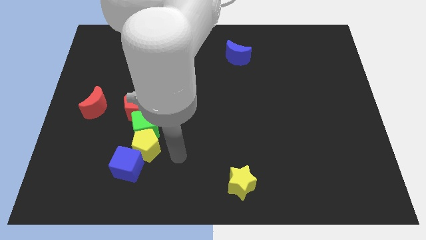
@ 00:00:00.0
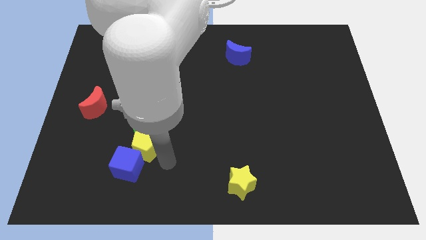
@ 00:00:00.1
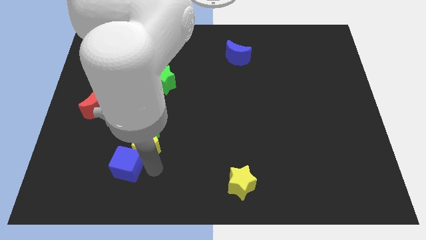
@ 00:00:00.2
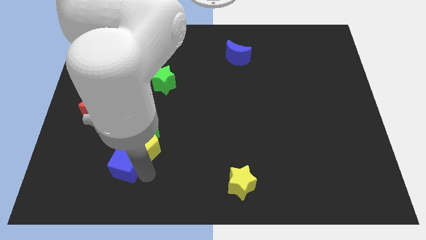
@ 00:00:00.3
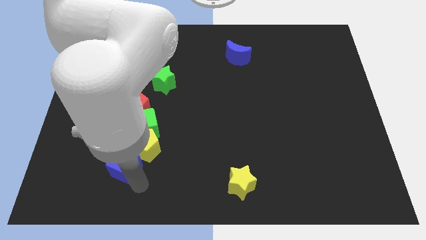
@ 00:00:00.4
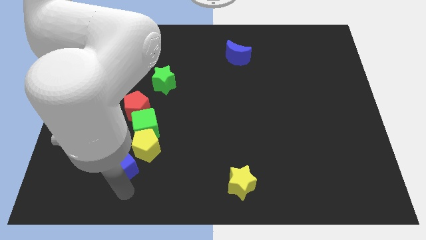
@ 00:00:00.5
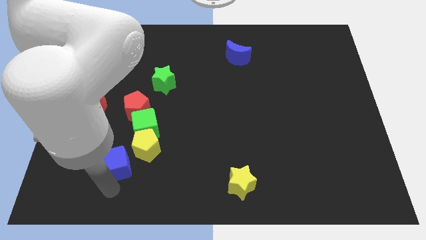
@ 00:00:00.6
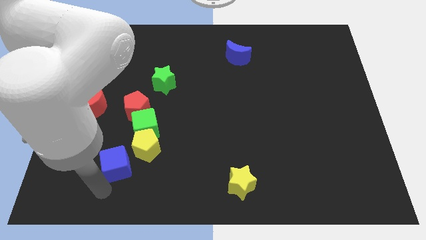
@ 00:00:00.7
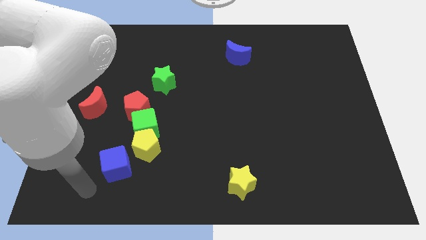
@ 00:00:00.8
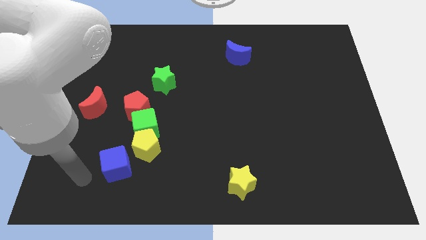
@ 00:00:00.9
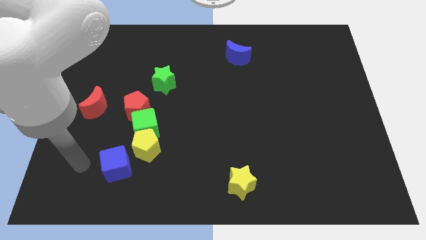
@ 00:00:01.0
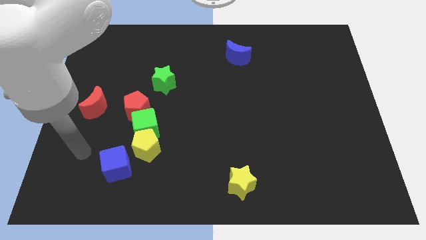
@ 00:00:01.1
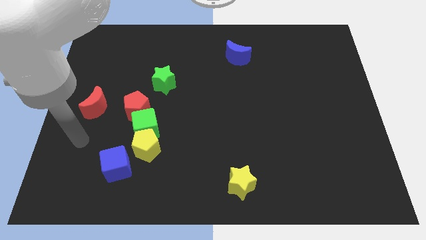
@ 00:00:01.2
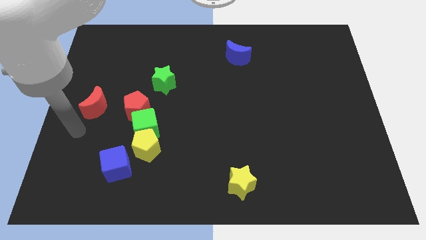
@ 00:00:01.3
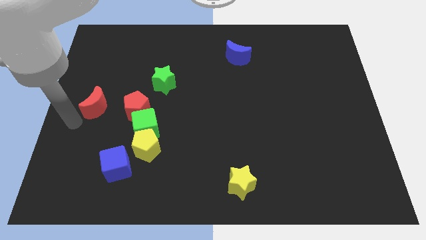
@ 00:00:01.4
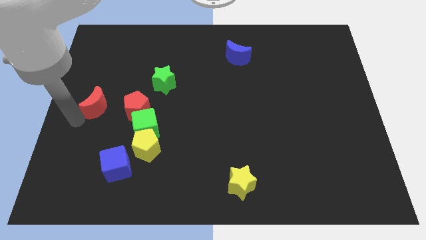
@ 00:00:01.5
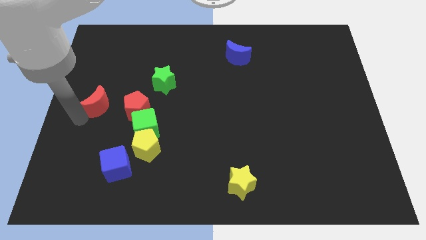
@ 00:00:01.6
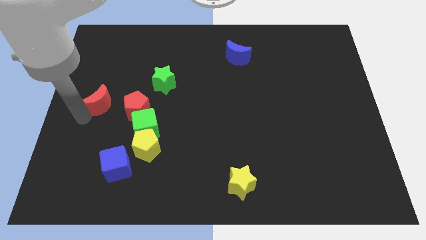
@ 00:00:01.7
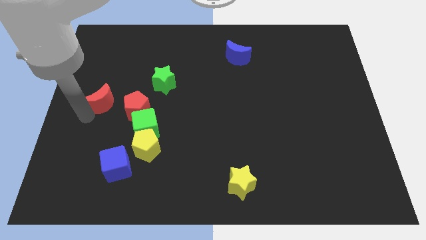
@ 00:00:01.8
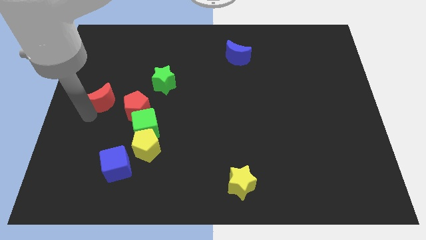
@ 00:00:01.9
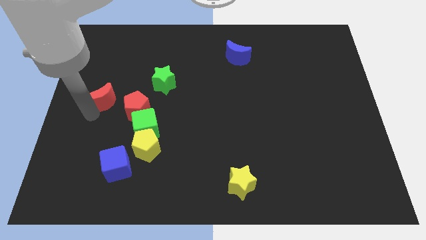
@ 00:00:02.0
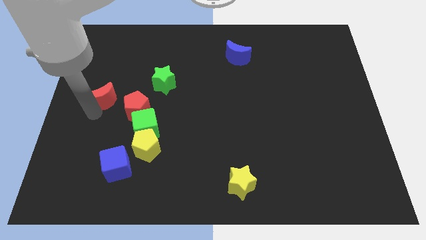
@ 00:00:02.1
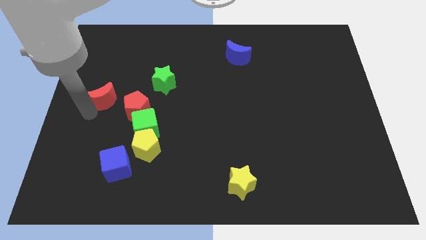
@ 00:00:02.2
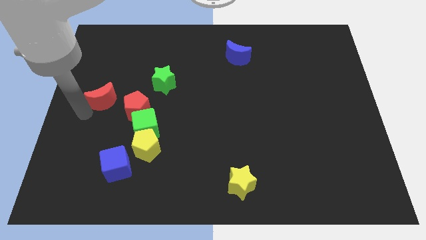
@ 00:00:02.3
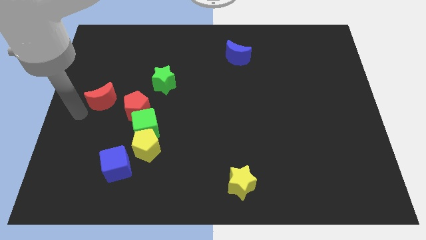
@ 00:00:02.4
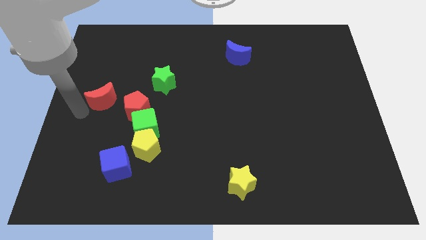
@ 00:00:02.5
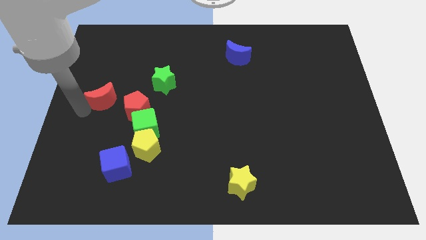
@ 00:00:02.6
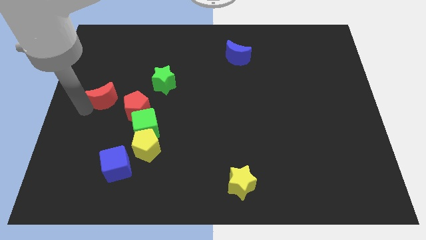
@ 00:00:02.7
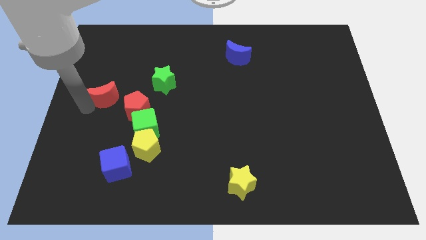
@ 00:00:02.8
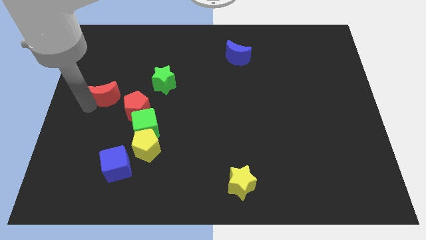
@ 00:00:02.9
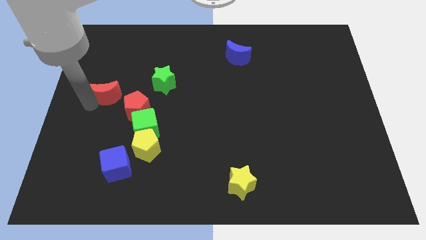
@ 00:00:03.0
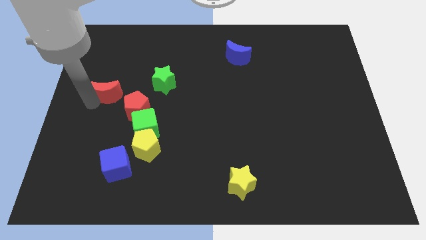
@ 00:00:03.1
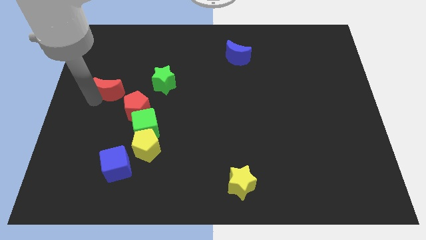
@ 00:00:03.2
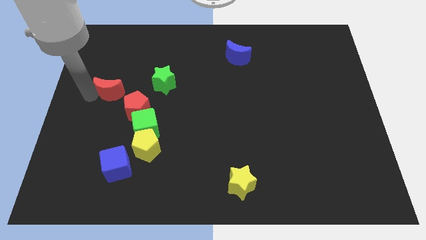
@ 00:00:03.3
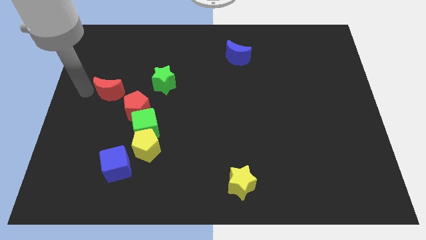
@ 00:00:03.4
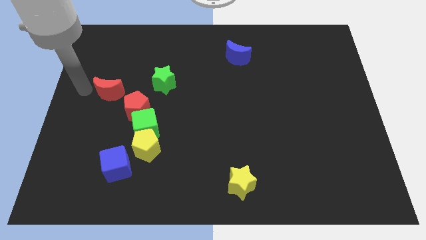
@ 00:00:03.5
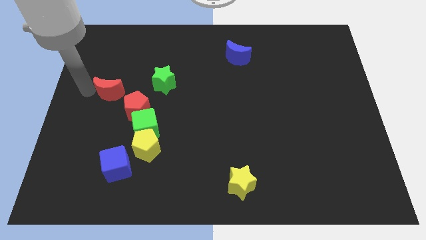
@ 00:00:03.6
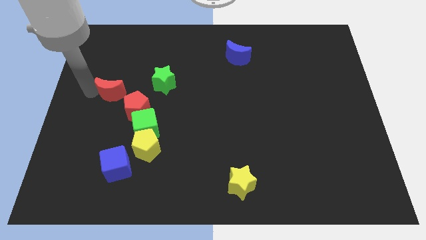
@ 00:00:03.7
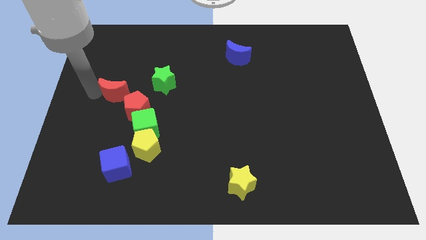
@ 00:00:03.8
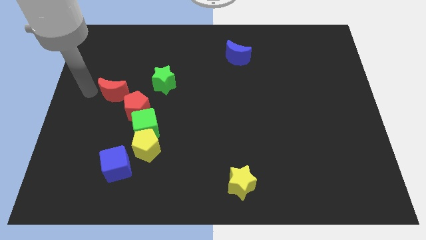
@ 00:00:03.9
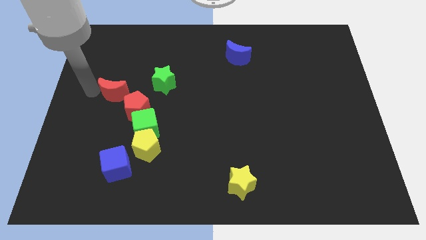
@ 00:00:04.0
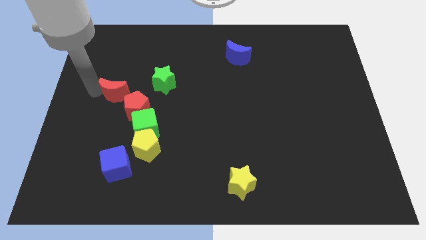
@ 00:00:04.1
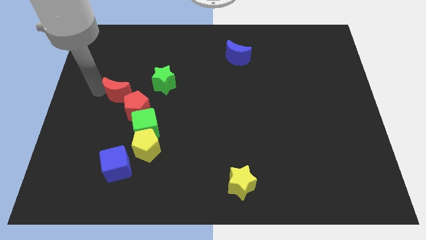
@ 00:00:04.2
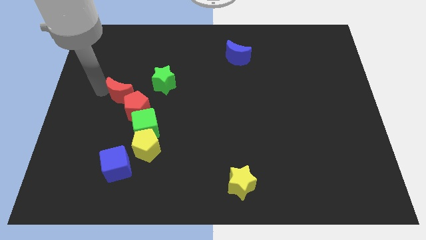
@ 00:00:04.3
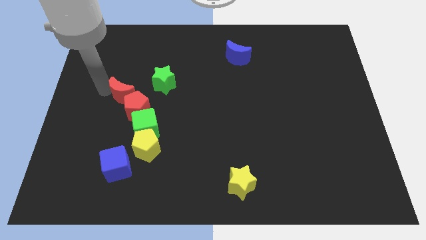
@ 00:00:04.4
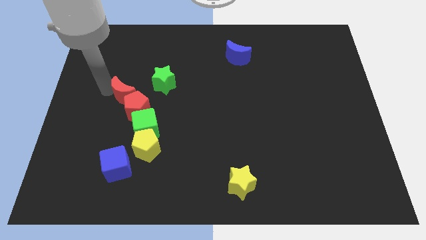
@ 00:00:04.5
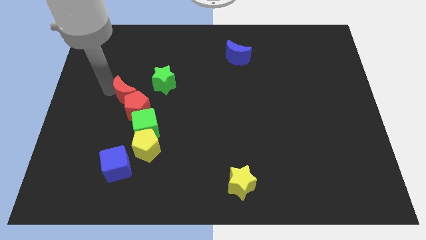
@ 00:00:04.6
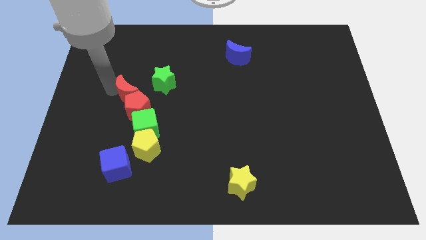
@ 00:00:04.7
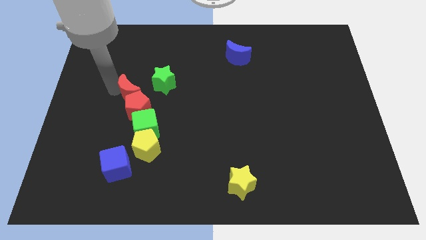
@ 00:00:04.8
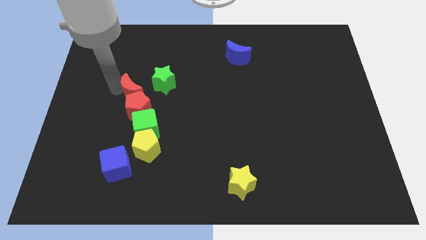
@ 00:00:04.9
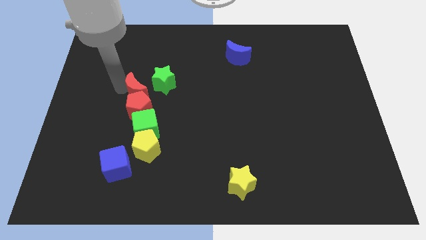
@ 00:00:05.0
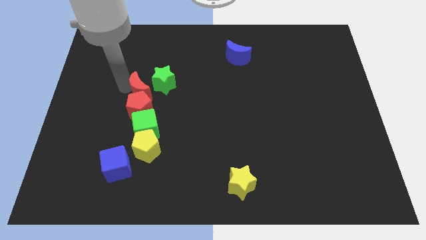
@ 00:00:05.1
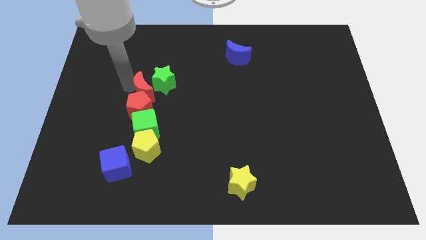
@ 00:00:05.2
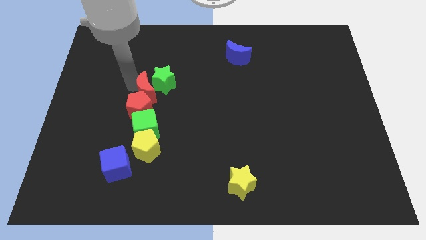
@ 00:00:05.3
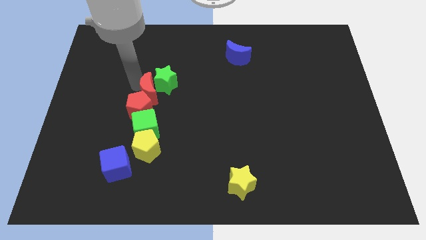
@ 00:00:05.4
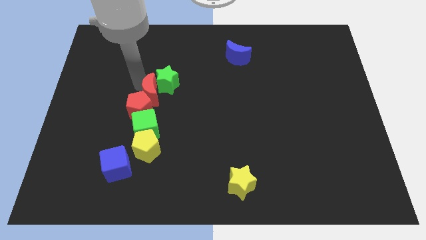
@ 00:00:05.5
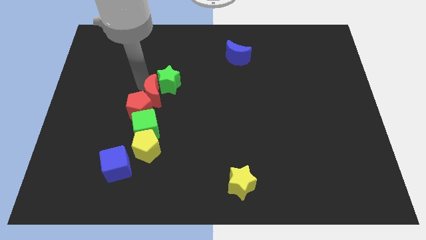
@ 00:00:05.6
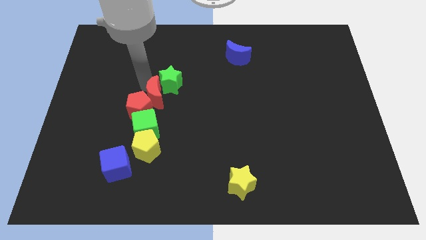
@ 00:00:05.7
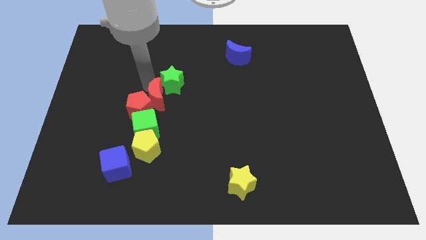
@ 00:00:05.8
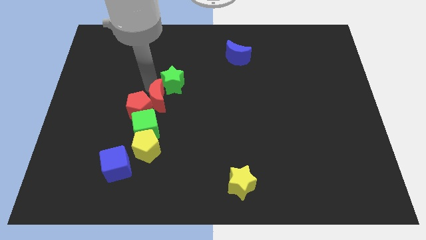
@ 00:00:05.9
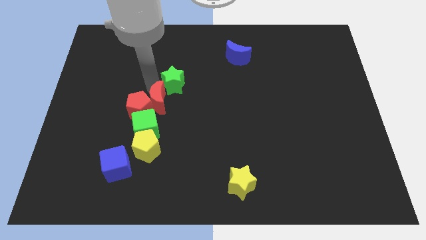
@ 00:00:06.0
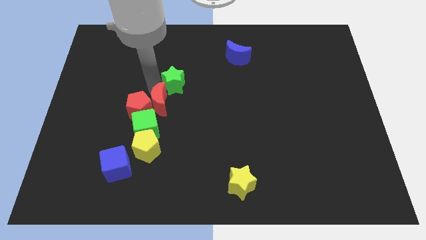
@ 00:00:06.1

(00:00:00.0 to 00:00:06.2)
push the red moon to the middle of the board
